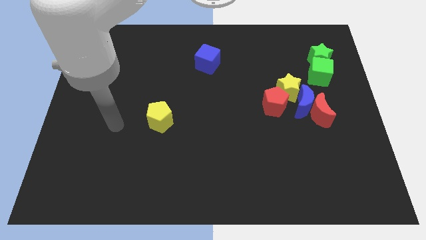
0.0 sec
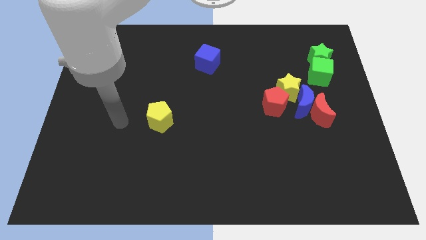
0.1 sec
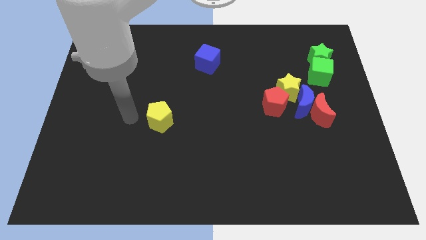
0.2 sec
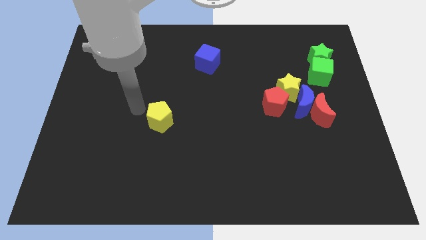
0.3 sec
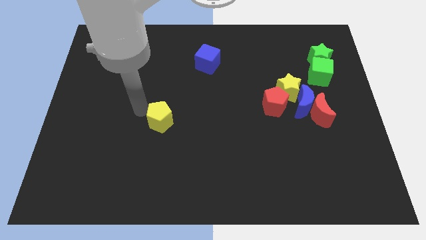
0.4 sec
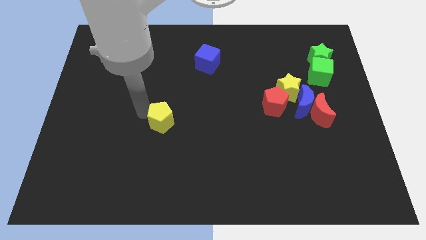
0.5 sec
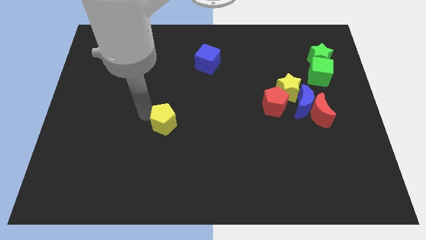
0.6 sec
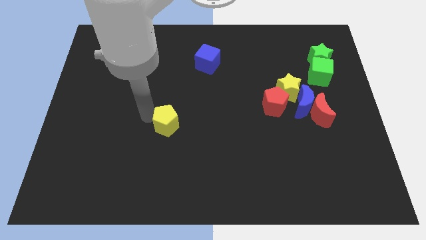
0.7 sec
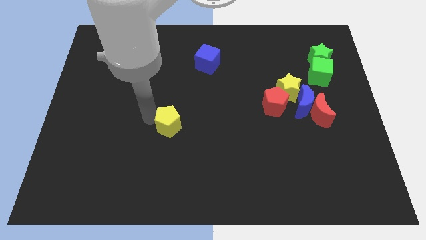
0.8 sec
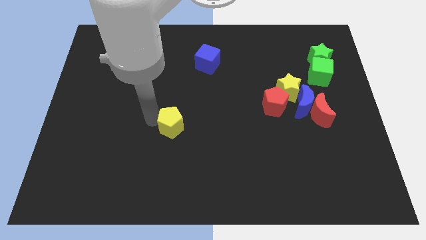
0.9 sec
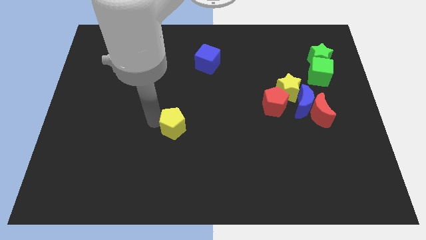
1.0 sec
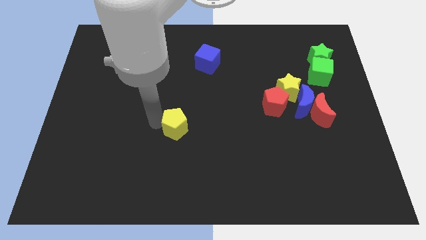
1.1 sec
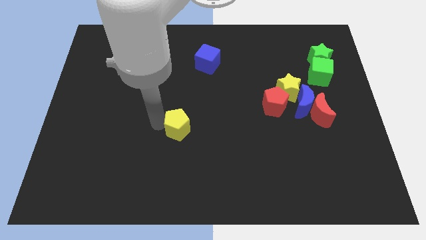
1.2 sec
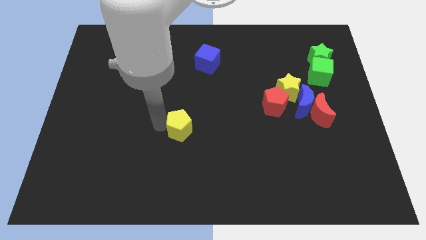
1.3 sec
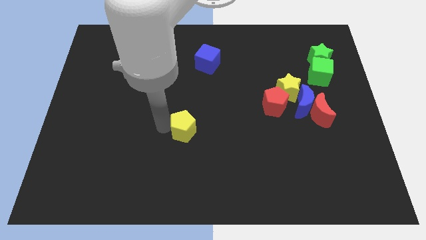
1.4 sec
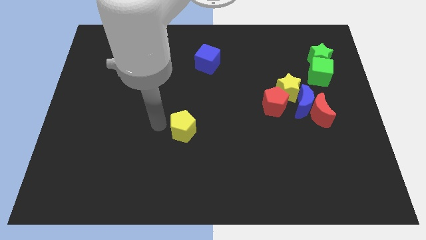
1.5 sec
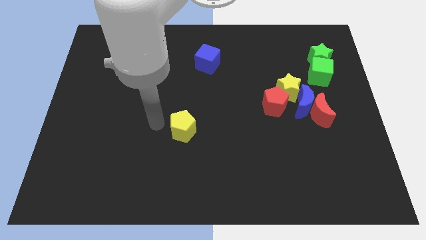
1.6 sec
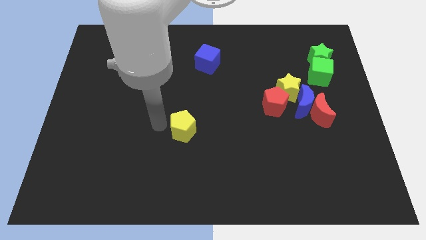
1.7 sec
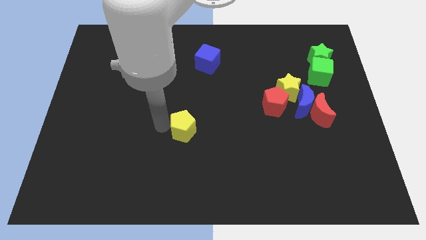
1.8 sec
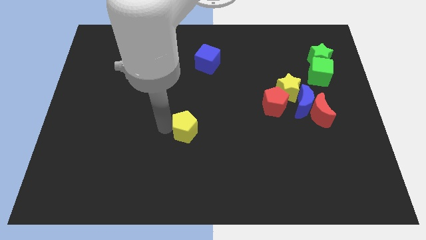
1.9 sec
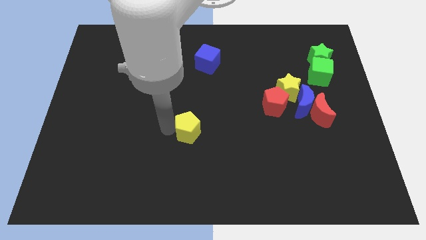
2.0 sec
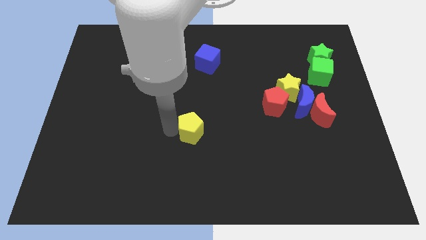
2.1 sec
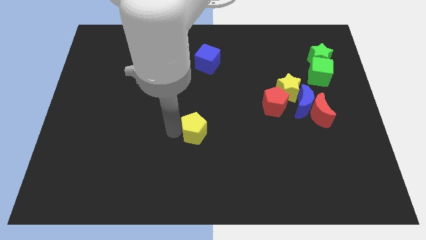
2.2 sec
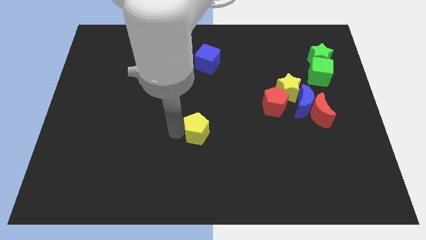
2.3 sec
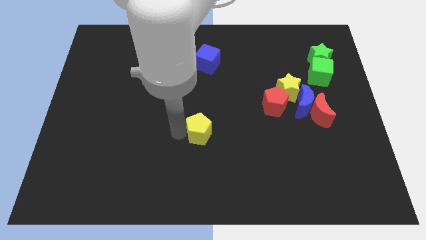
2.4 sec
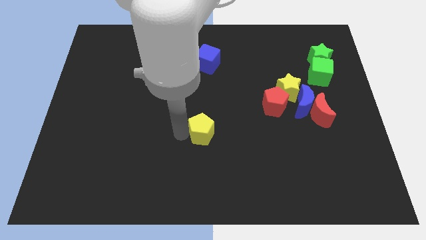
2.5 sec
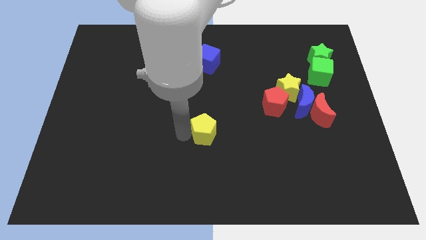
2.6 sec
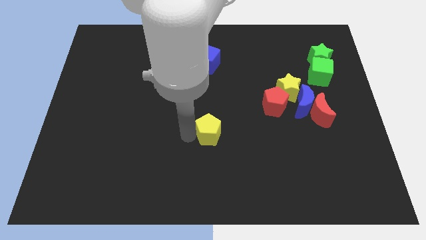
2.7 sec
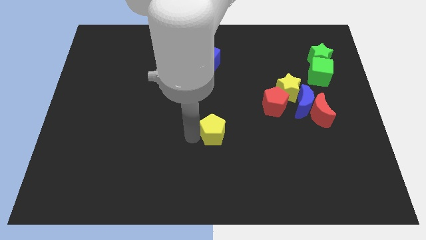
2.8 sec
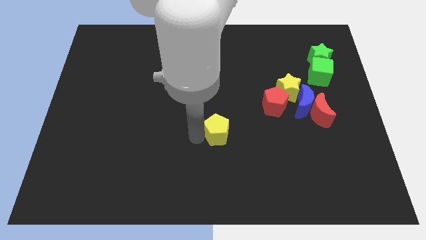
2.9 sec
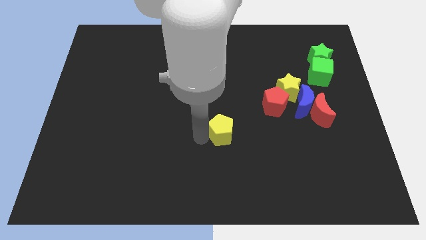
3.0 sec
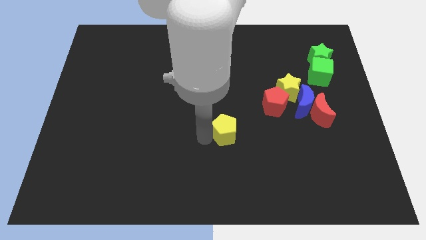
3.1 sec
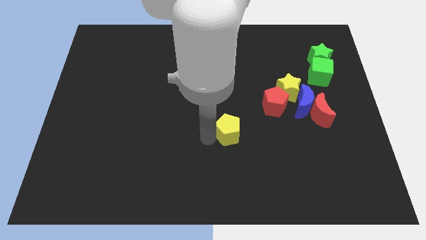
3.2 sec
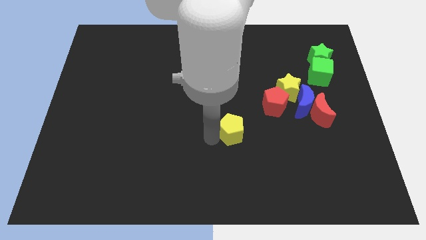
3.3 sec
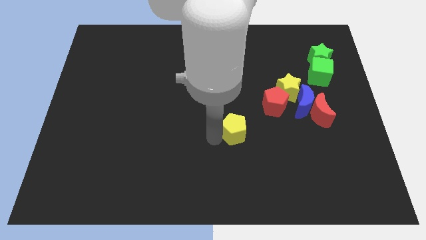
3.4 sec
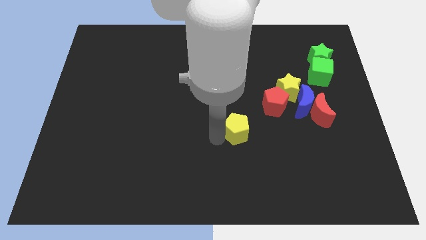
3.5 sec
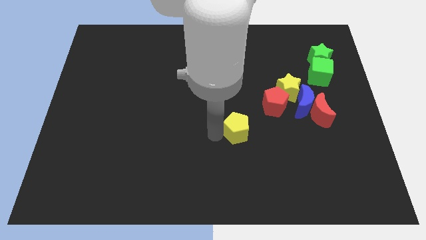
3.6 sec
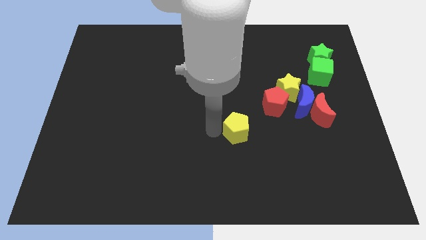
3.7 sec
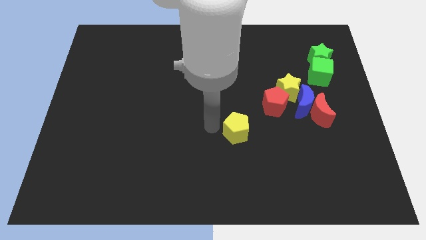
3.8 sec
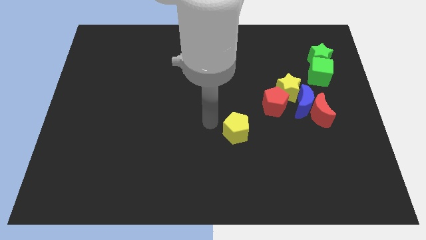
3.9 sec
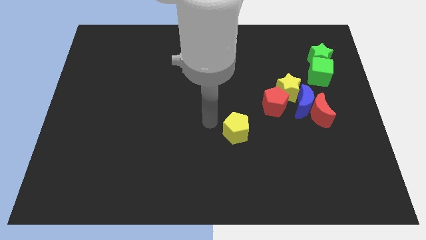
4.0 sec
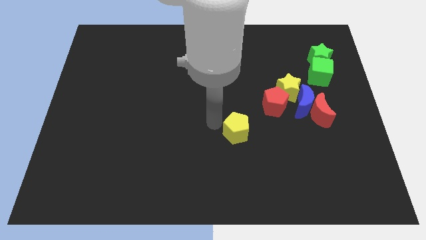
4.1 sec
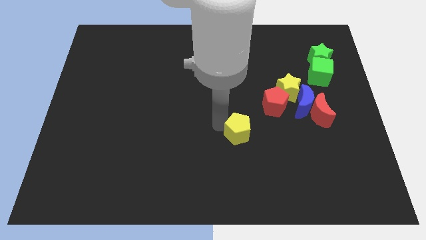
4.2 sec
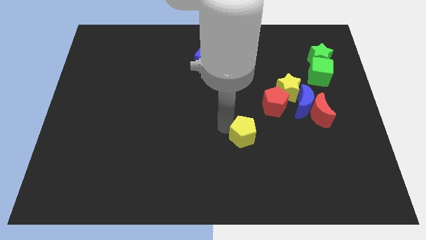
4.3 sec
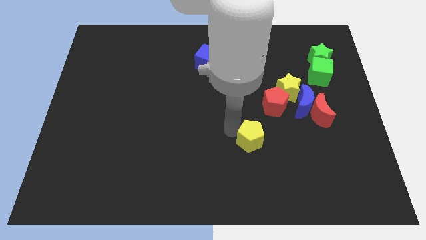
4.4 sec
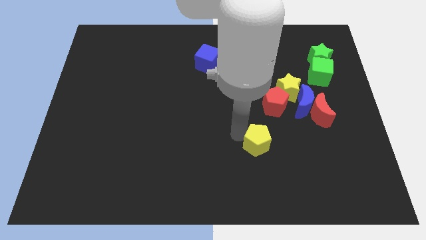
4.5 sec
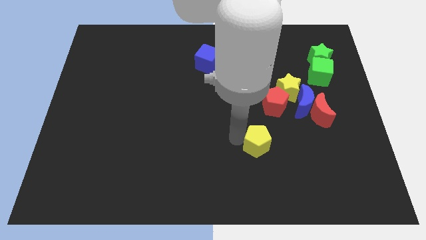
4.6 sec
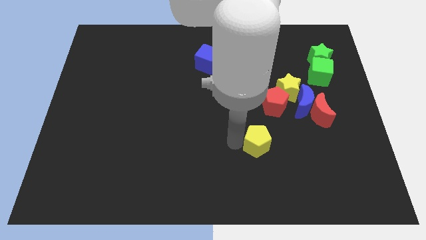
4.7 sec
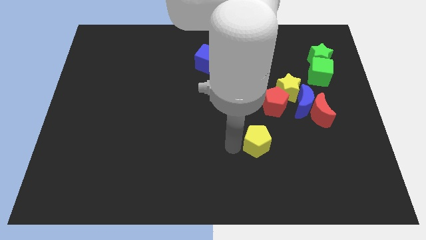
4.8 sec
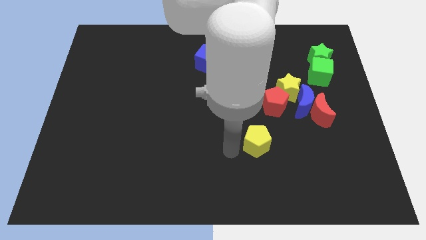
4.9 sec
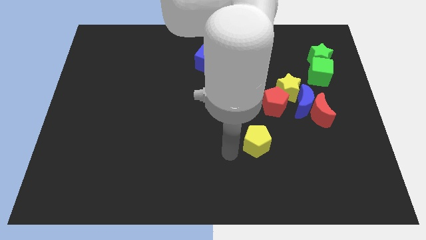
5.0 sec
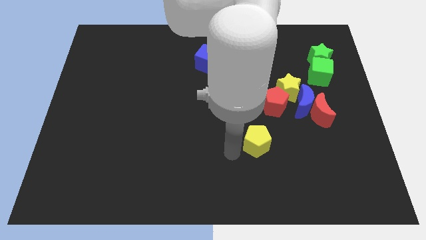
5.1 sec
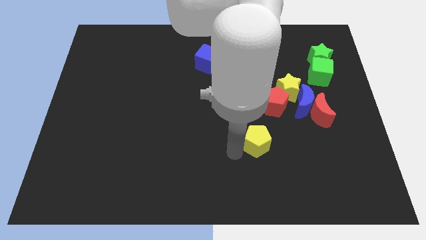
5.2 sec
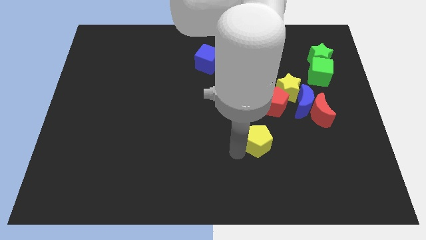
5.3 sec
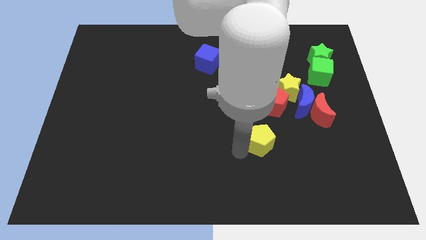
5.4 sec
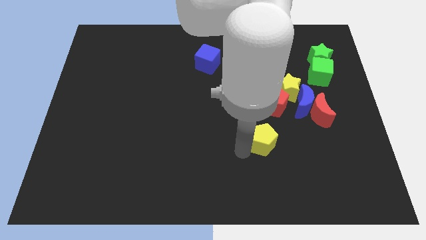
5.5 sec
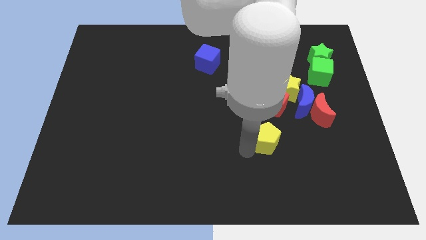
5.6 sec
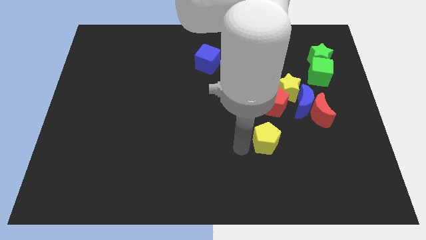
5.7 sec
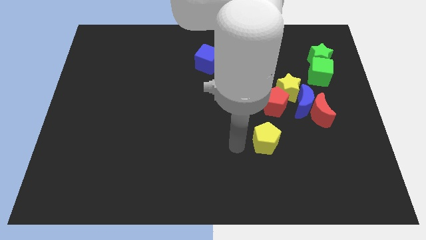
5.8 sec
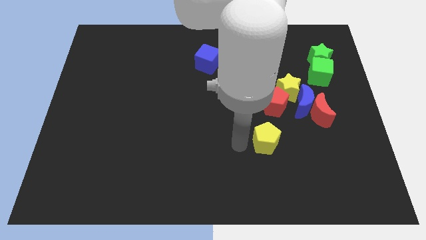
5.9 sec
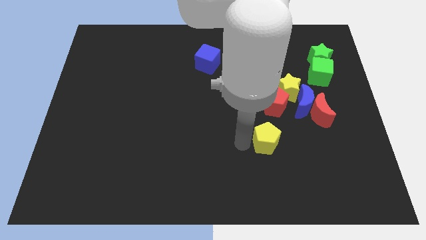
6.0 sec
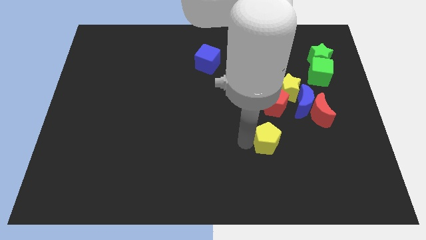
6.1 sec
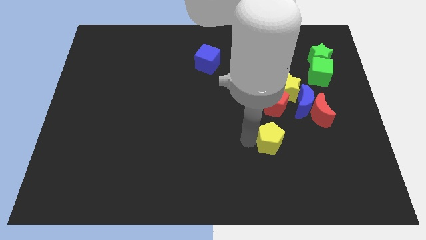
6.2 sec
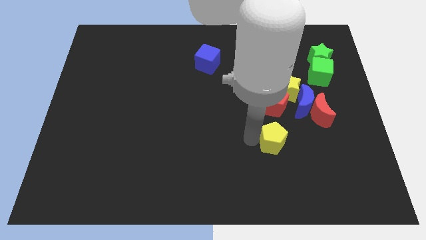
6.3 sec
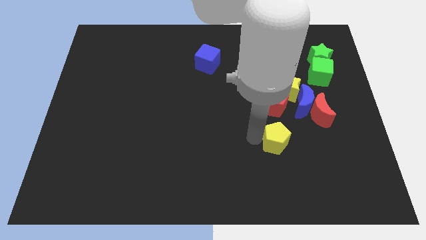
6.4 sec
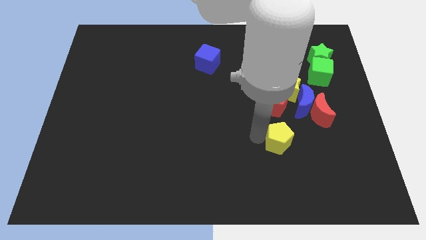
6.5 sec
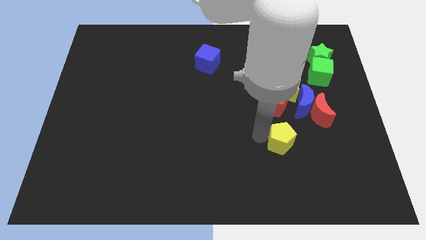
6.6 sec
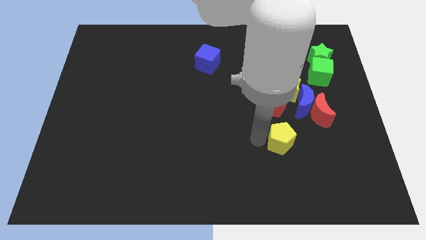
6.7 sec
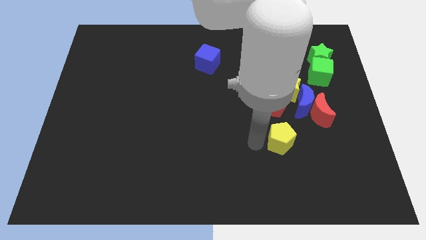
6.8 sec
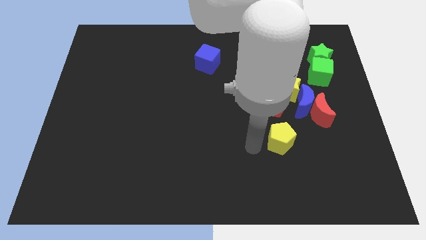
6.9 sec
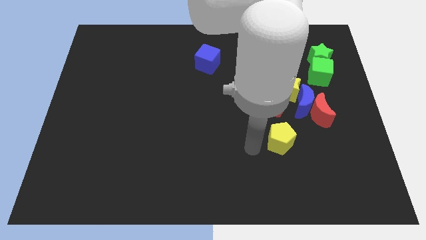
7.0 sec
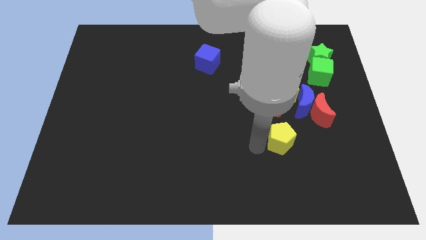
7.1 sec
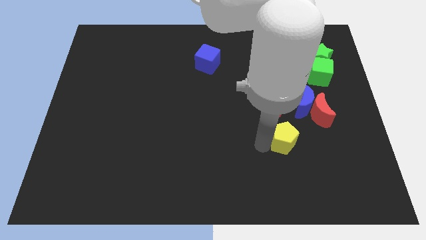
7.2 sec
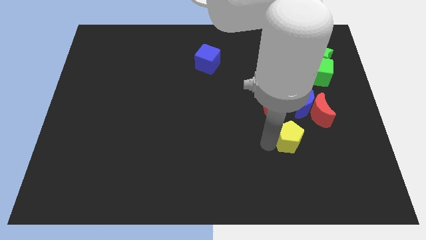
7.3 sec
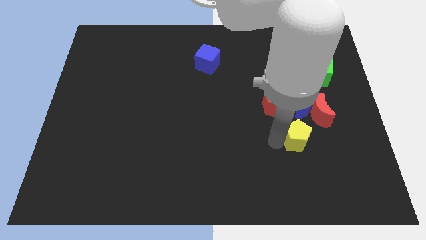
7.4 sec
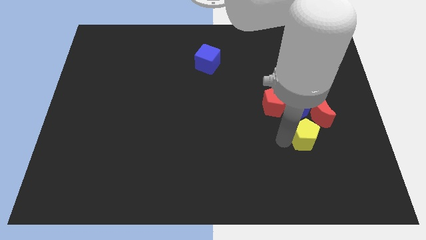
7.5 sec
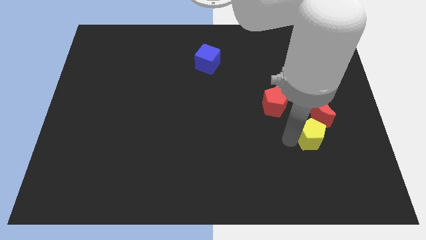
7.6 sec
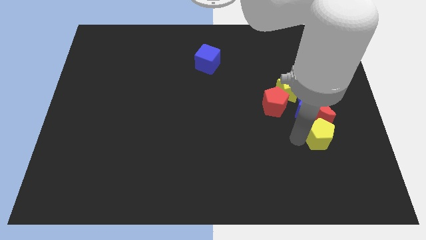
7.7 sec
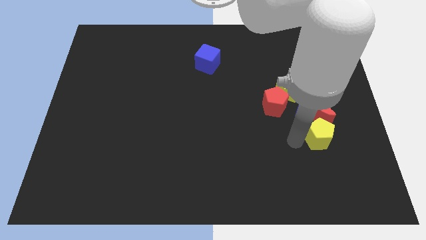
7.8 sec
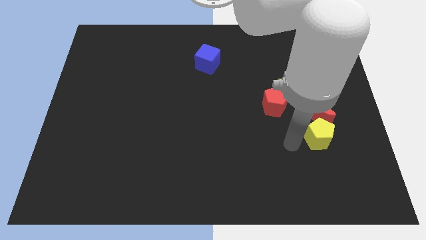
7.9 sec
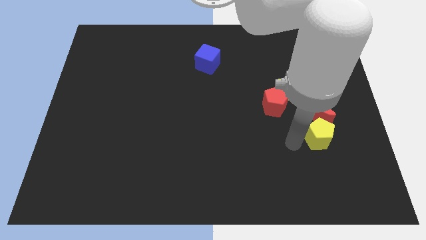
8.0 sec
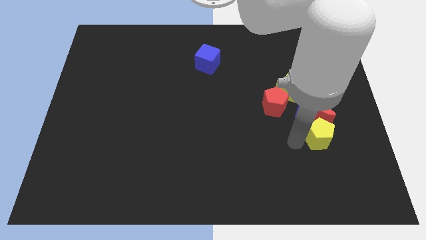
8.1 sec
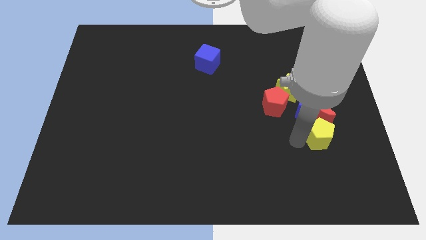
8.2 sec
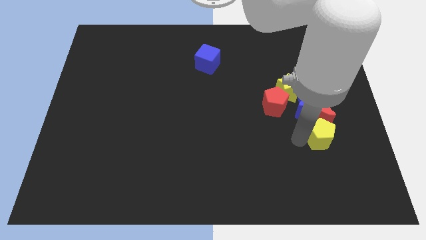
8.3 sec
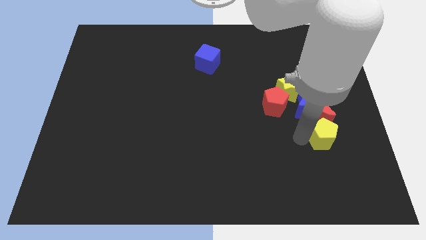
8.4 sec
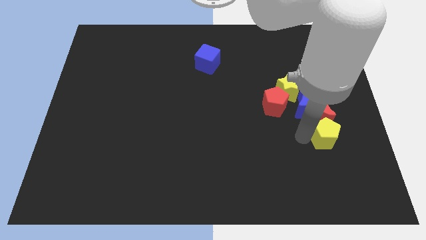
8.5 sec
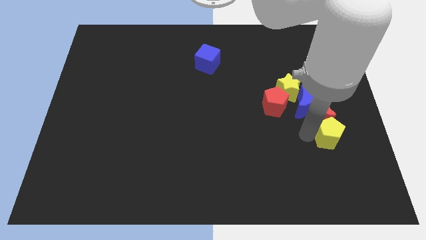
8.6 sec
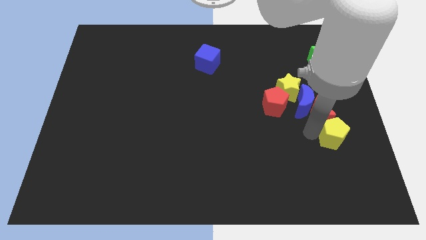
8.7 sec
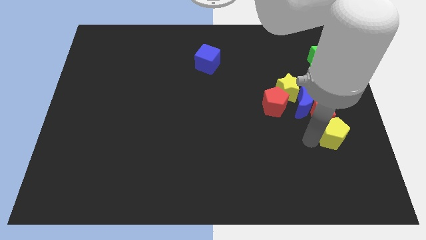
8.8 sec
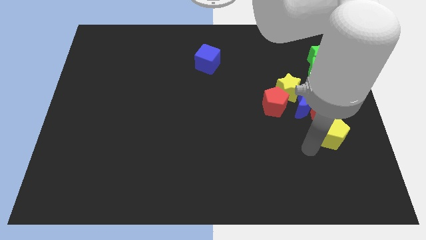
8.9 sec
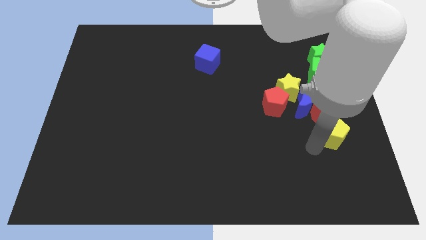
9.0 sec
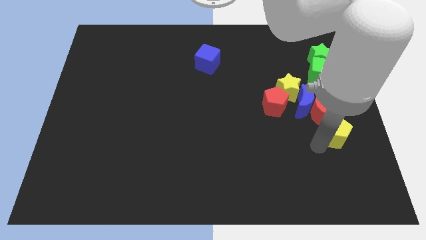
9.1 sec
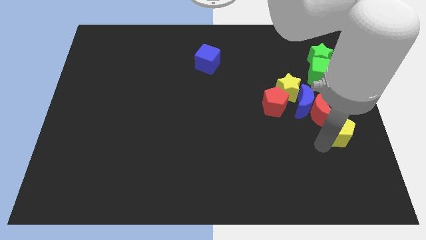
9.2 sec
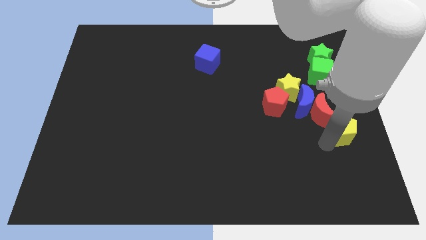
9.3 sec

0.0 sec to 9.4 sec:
push the yellow pentagon to the right side of the board
